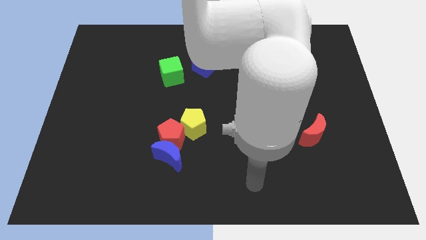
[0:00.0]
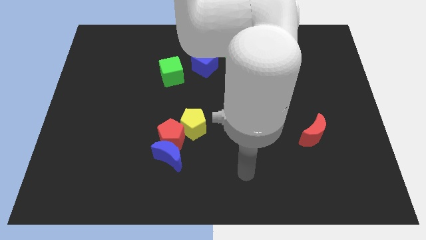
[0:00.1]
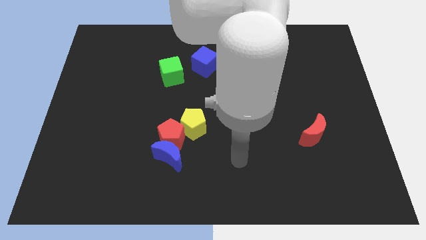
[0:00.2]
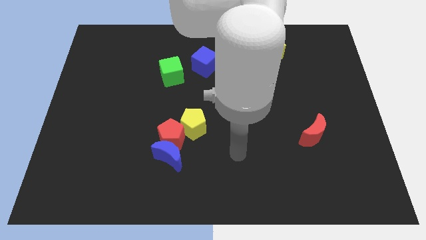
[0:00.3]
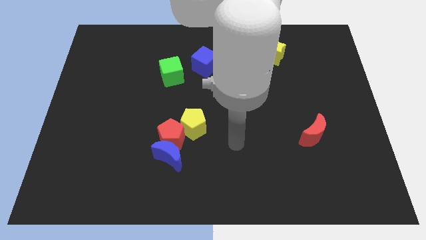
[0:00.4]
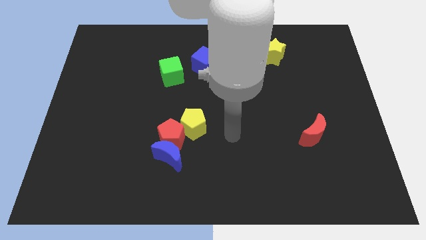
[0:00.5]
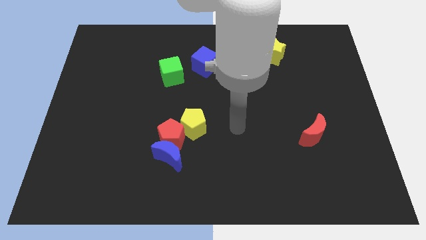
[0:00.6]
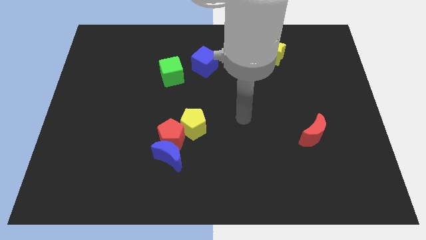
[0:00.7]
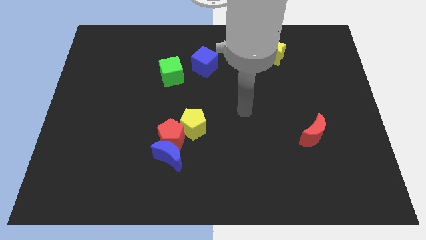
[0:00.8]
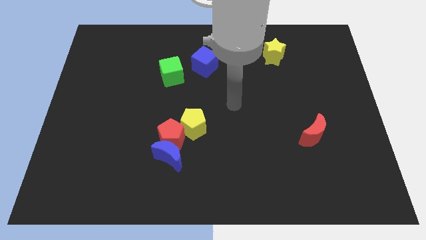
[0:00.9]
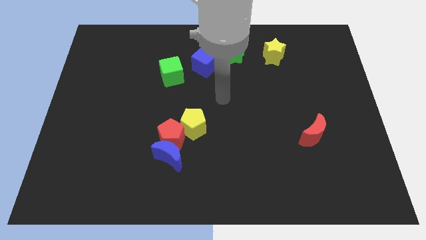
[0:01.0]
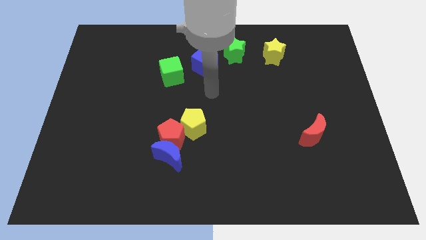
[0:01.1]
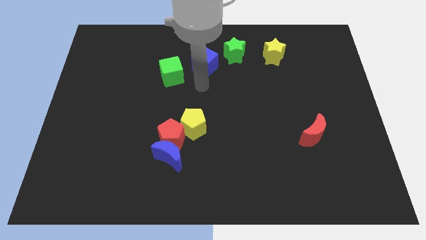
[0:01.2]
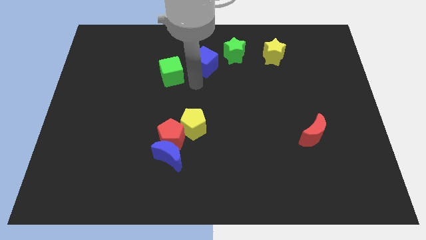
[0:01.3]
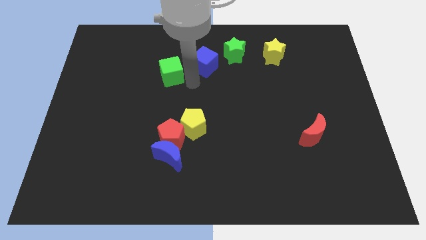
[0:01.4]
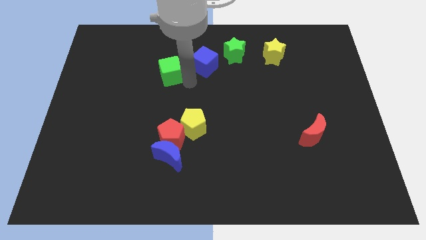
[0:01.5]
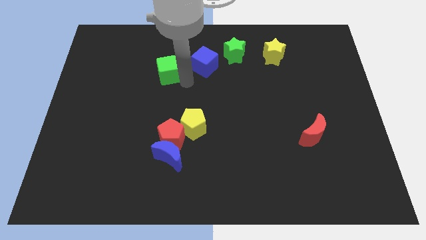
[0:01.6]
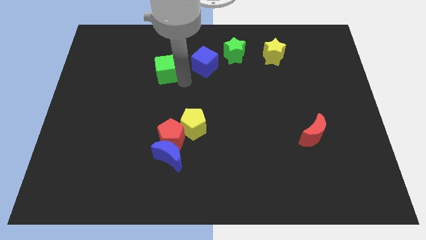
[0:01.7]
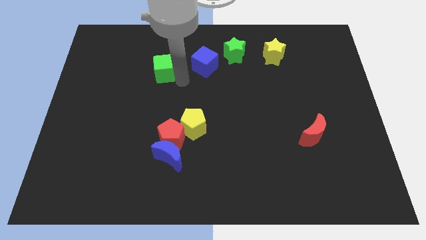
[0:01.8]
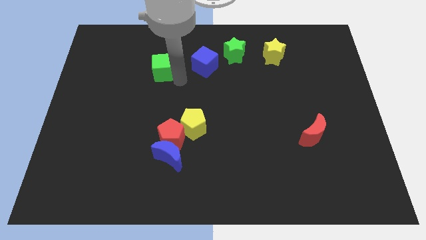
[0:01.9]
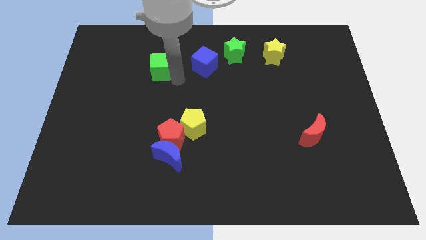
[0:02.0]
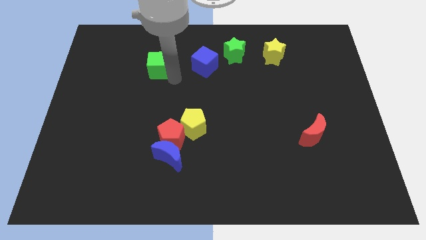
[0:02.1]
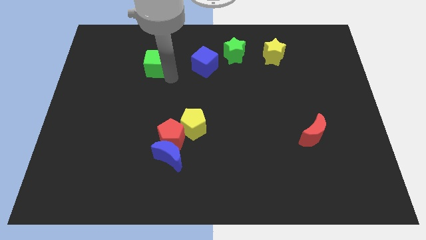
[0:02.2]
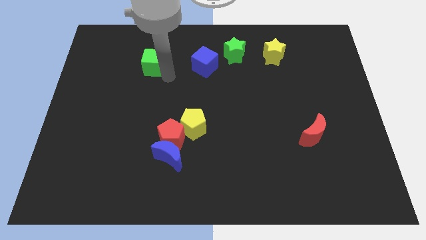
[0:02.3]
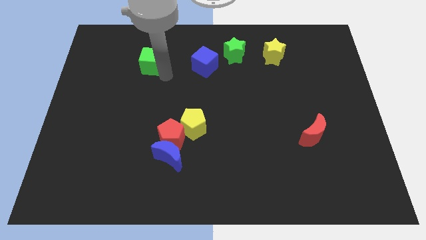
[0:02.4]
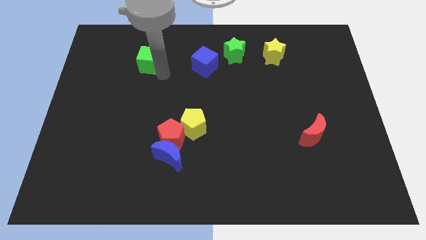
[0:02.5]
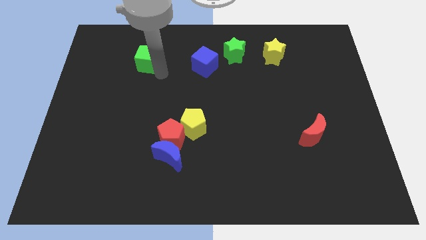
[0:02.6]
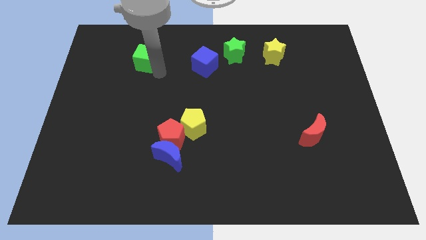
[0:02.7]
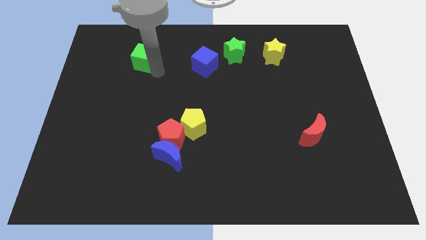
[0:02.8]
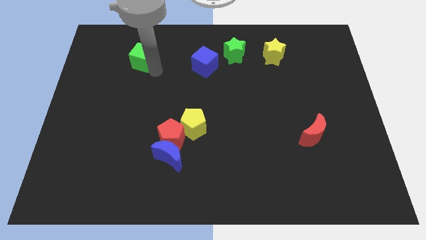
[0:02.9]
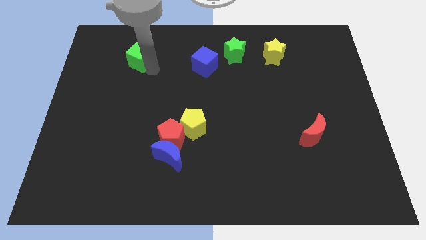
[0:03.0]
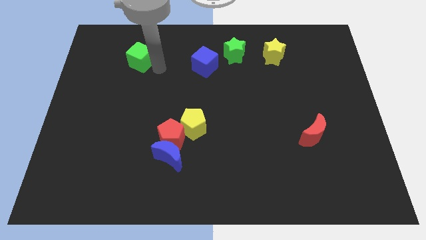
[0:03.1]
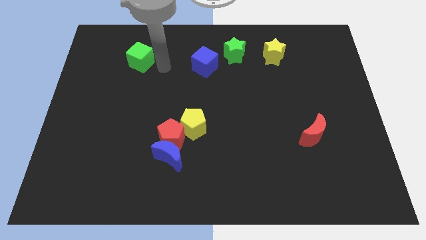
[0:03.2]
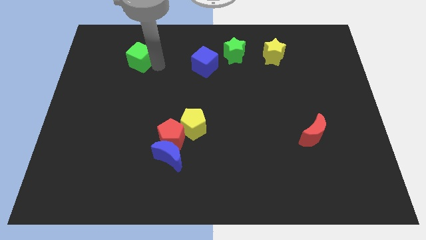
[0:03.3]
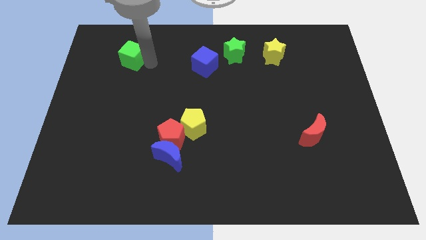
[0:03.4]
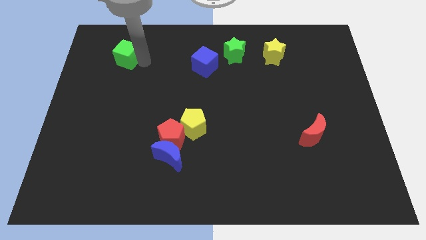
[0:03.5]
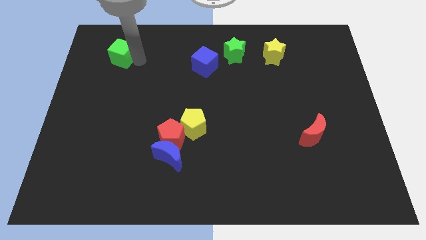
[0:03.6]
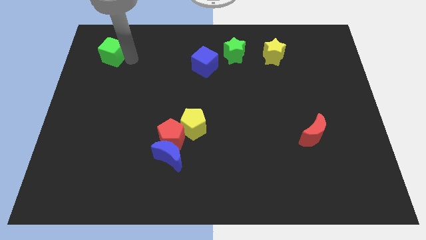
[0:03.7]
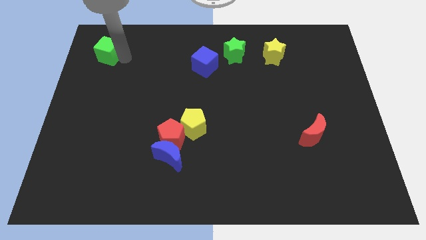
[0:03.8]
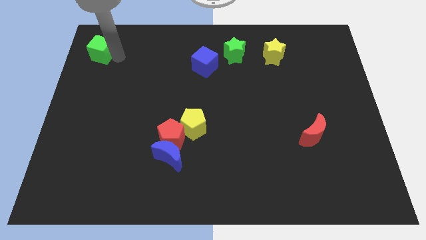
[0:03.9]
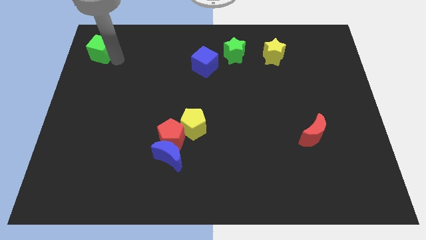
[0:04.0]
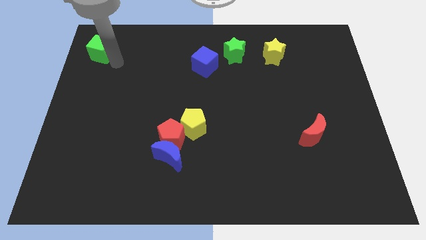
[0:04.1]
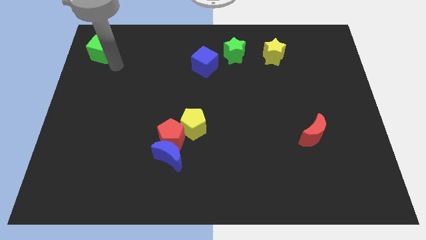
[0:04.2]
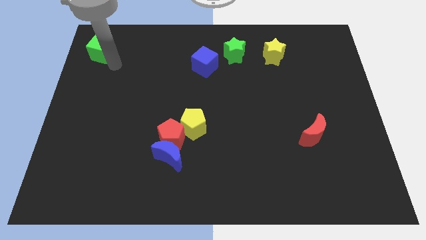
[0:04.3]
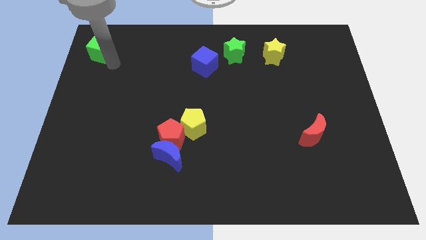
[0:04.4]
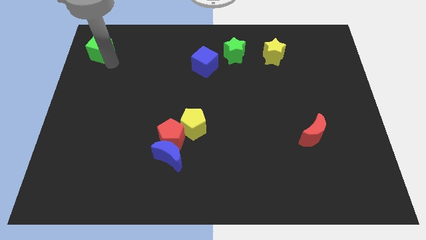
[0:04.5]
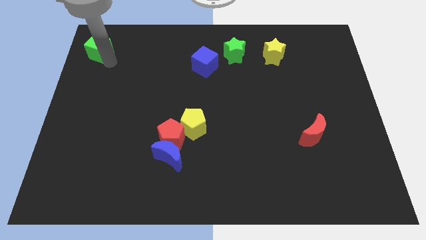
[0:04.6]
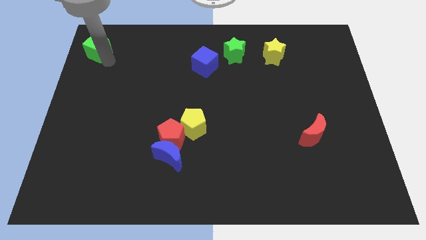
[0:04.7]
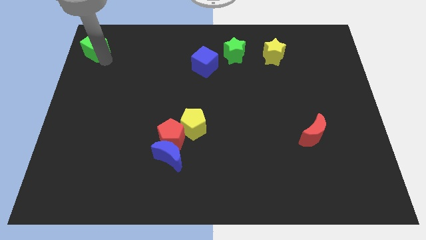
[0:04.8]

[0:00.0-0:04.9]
slide the green cube to the top left corner

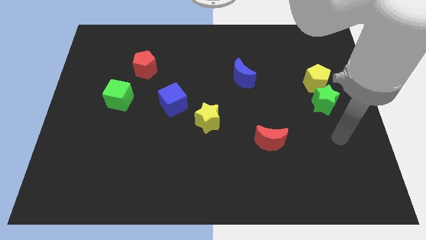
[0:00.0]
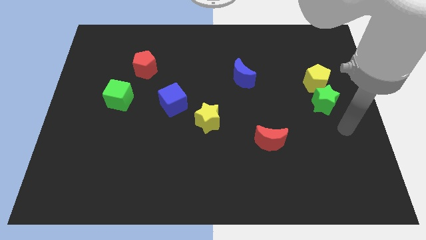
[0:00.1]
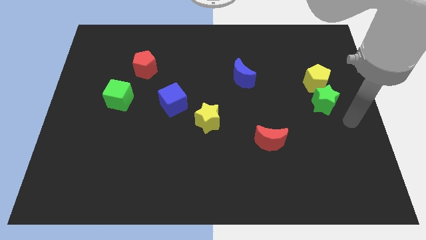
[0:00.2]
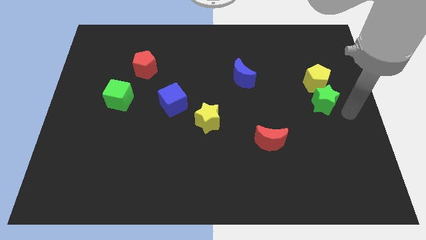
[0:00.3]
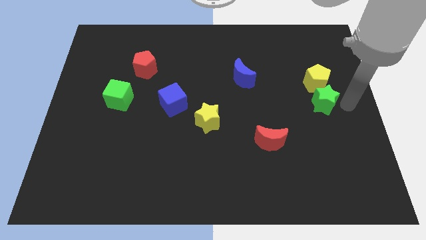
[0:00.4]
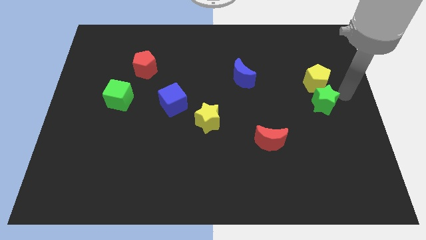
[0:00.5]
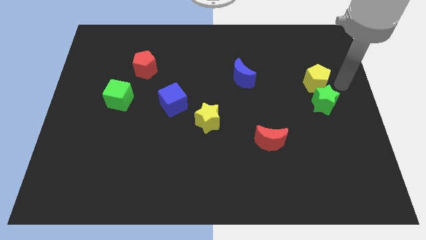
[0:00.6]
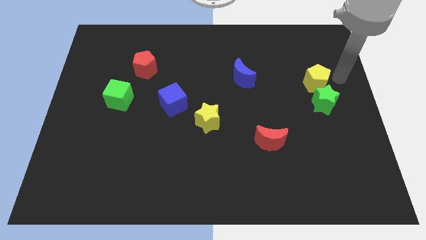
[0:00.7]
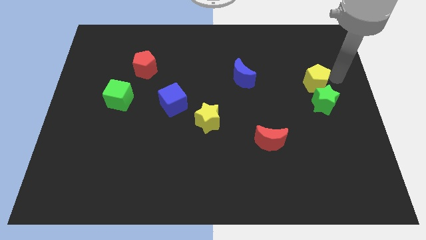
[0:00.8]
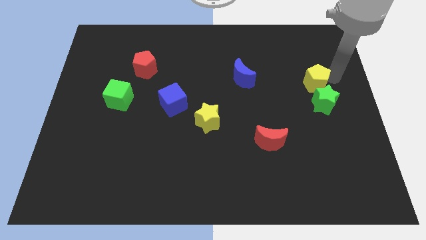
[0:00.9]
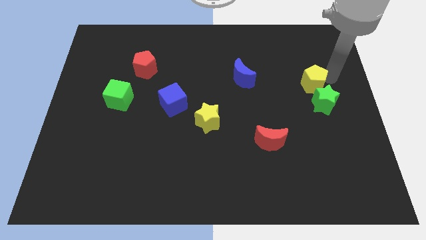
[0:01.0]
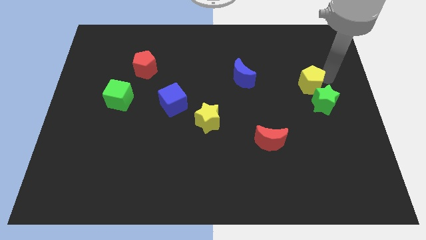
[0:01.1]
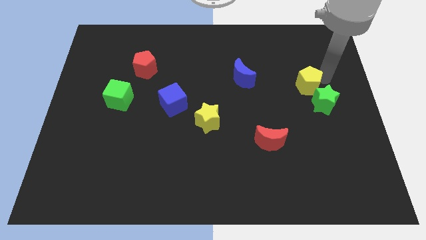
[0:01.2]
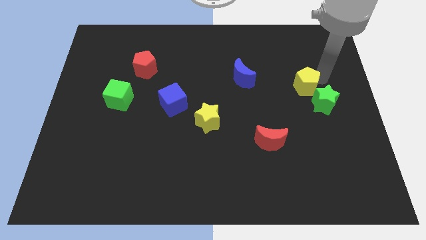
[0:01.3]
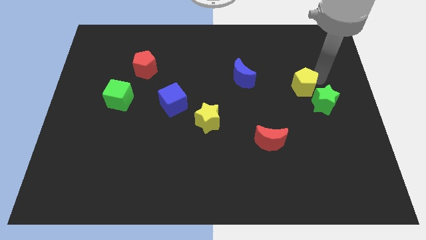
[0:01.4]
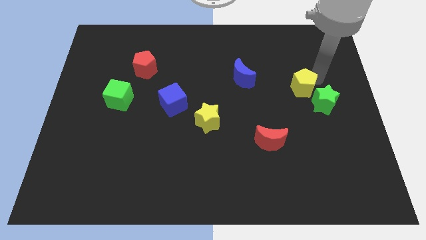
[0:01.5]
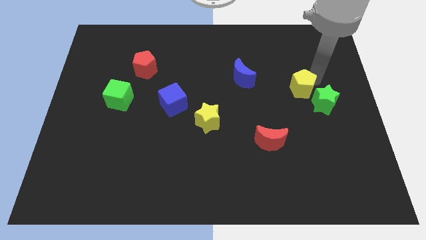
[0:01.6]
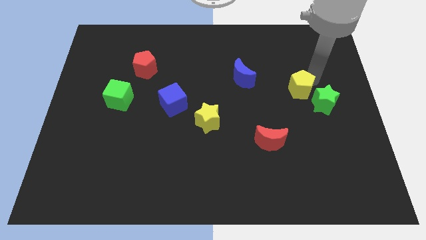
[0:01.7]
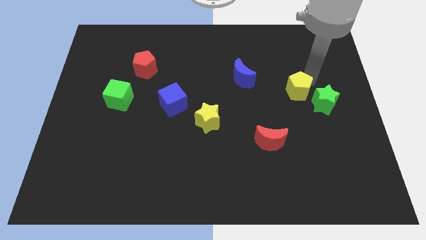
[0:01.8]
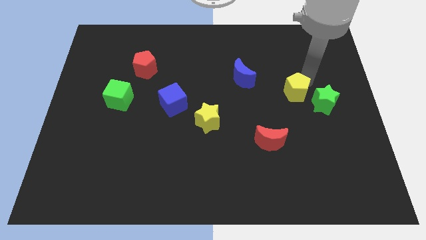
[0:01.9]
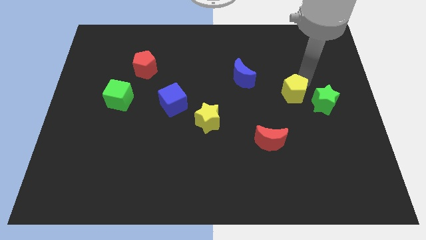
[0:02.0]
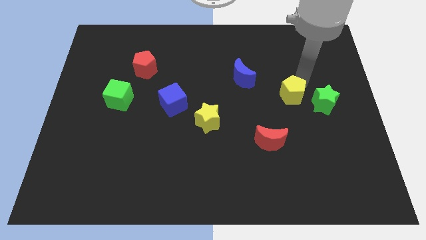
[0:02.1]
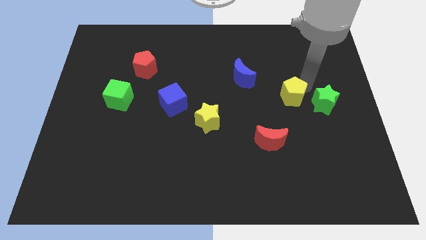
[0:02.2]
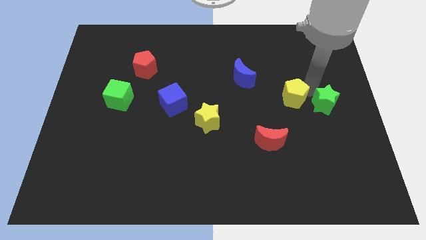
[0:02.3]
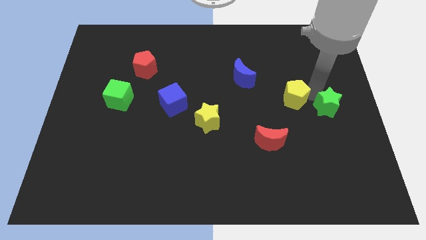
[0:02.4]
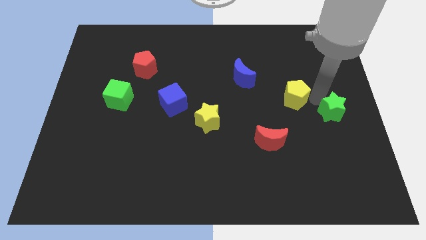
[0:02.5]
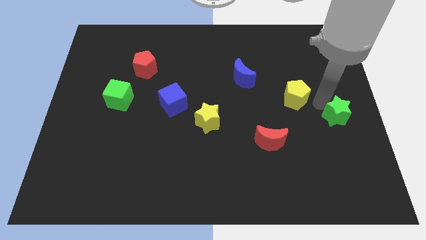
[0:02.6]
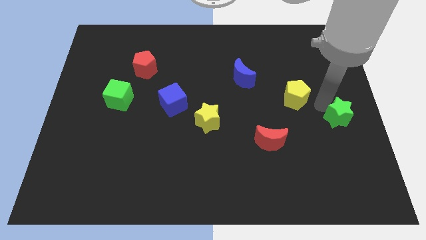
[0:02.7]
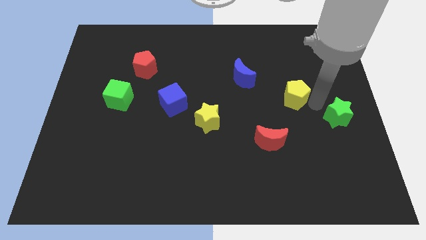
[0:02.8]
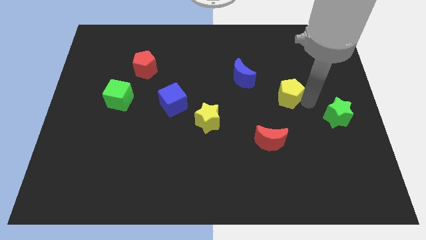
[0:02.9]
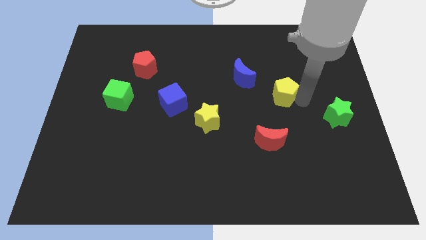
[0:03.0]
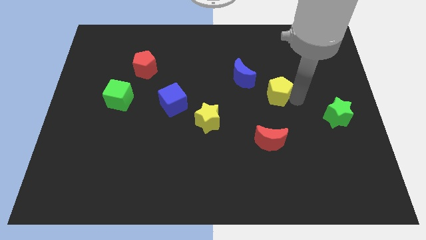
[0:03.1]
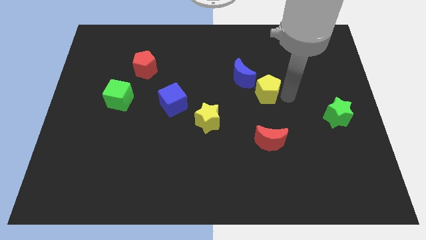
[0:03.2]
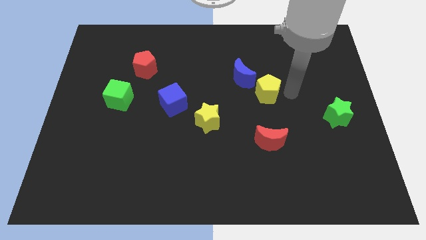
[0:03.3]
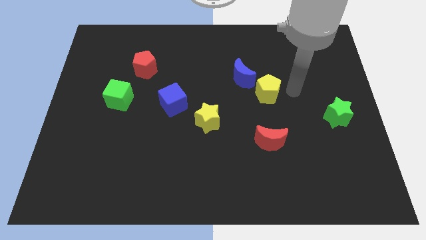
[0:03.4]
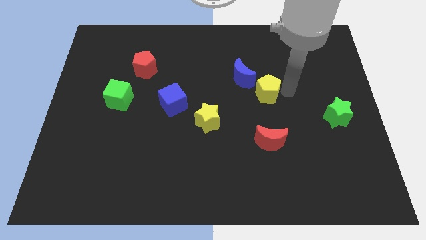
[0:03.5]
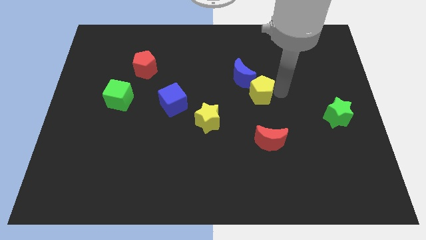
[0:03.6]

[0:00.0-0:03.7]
slide the yellow pentagon to the center of the board
